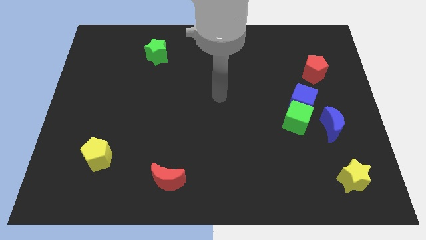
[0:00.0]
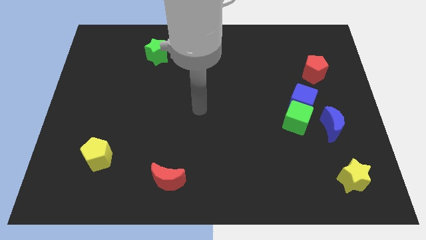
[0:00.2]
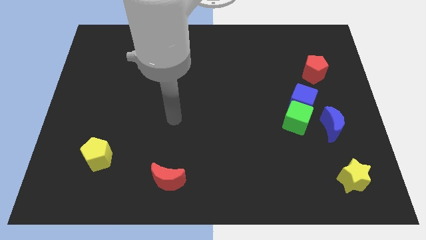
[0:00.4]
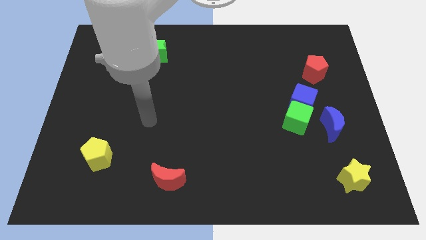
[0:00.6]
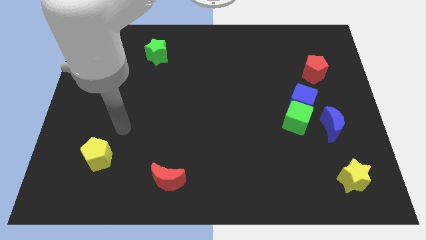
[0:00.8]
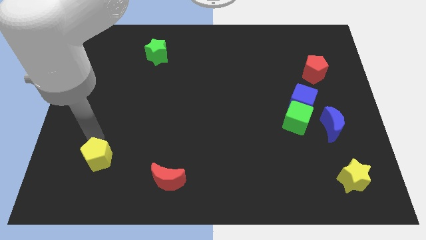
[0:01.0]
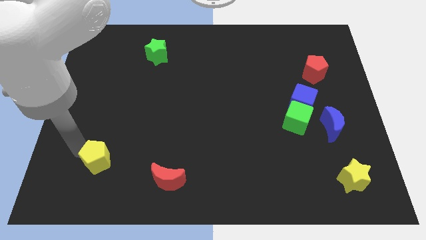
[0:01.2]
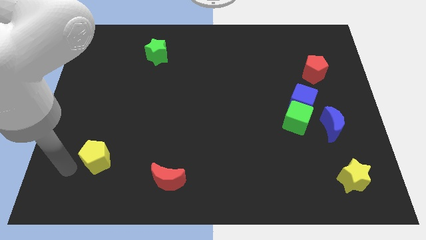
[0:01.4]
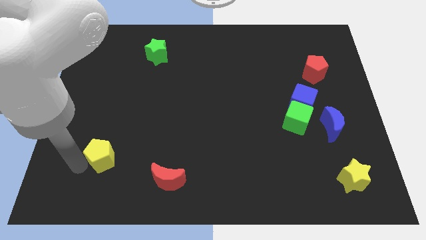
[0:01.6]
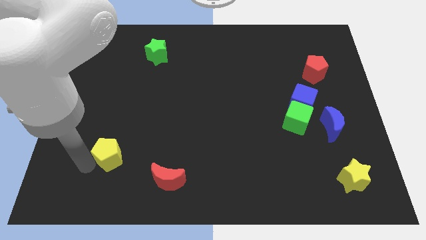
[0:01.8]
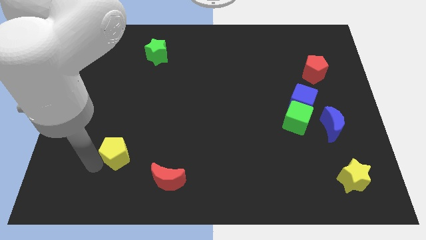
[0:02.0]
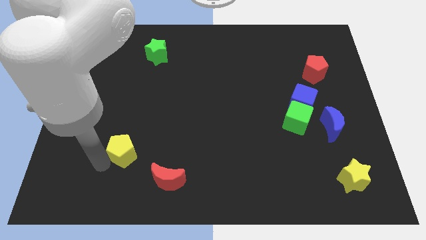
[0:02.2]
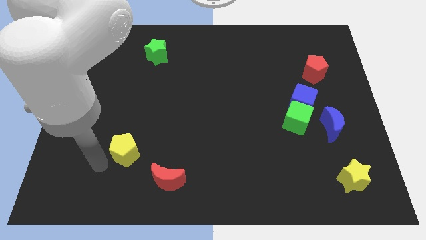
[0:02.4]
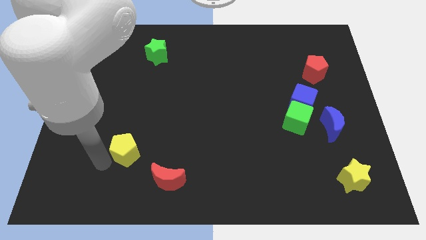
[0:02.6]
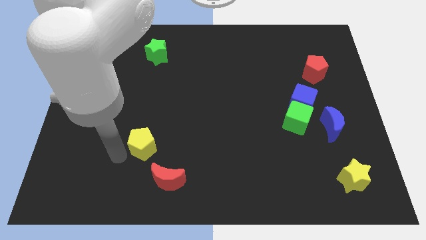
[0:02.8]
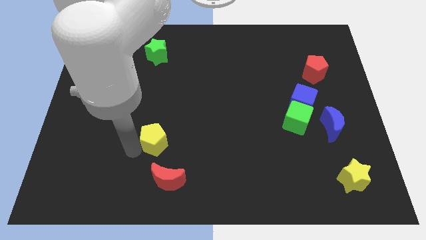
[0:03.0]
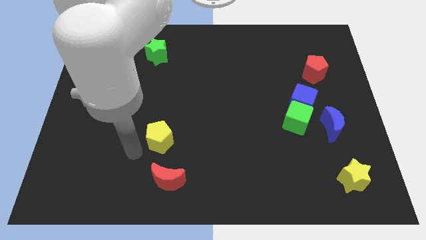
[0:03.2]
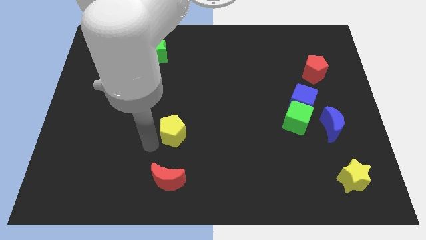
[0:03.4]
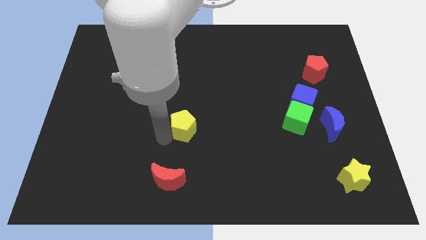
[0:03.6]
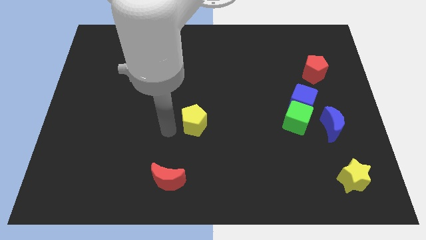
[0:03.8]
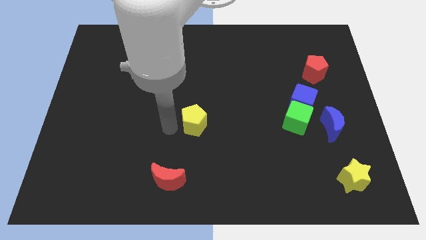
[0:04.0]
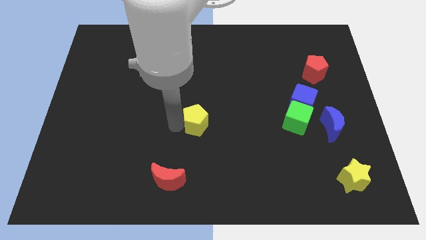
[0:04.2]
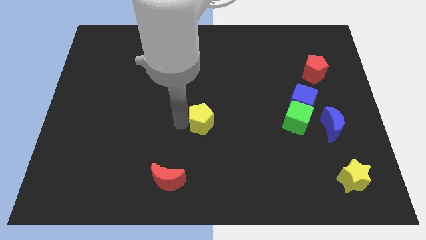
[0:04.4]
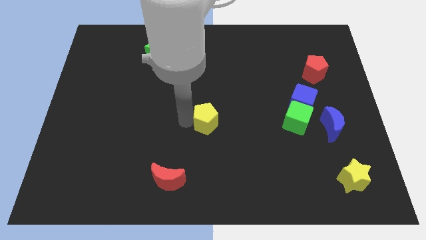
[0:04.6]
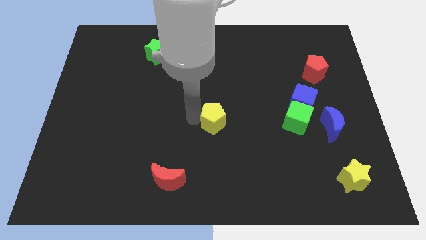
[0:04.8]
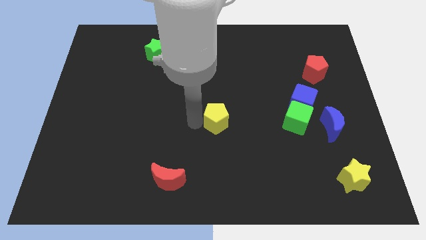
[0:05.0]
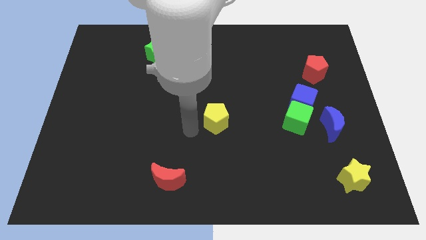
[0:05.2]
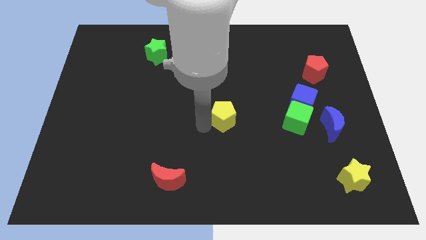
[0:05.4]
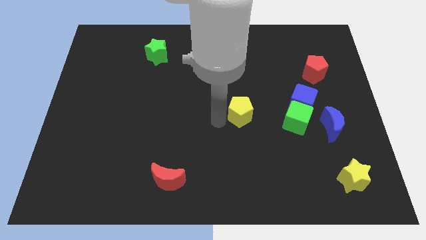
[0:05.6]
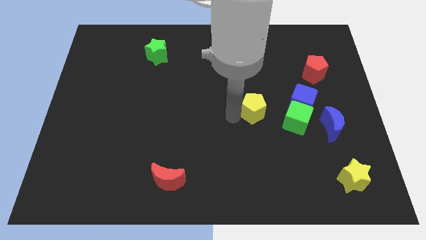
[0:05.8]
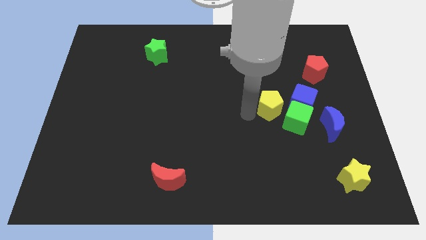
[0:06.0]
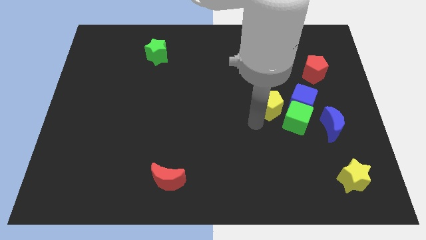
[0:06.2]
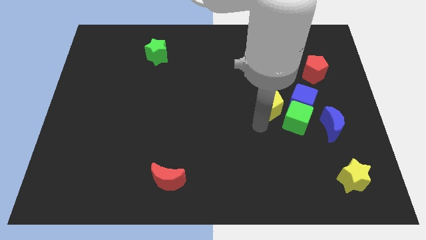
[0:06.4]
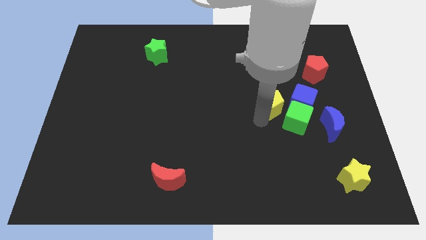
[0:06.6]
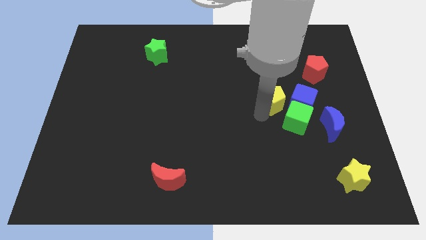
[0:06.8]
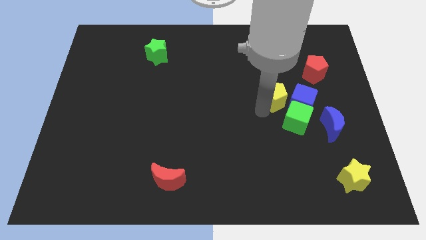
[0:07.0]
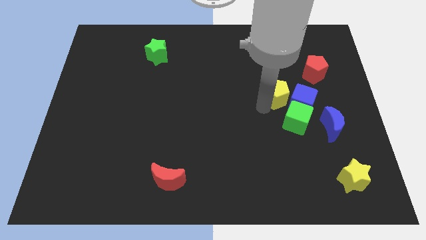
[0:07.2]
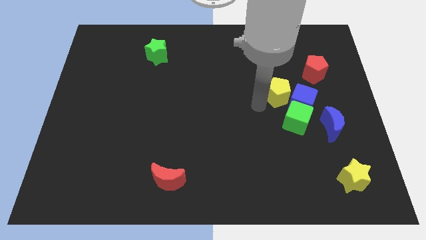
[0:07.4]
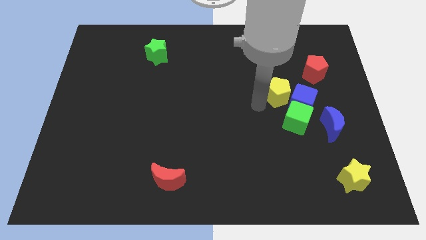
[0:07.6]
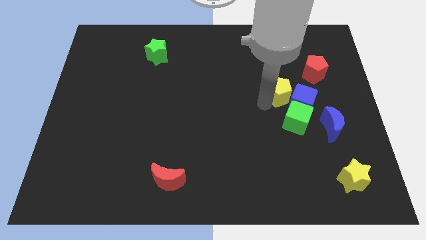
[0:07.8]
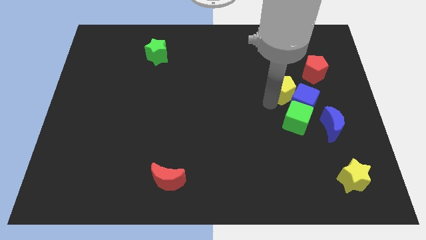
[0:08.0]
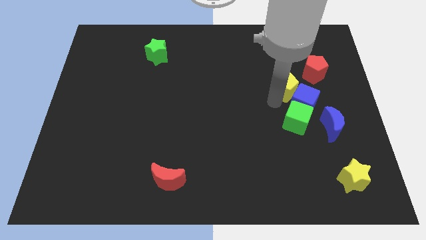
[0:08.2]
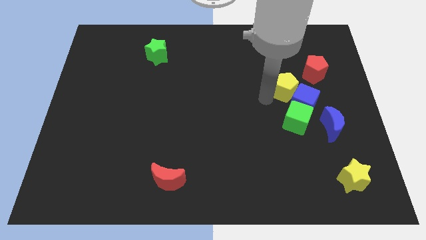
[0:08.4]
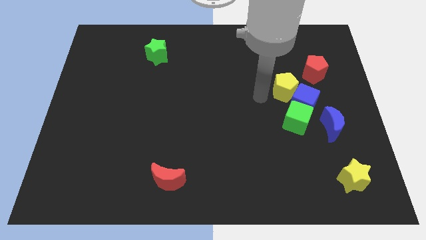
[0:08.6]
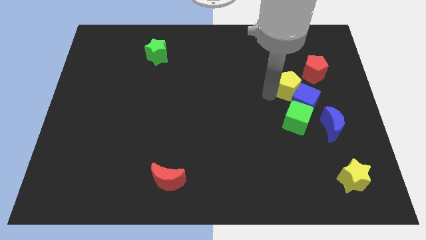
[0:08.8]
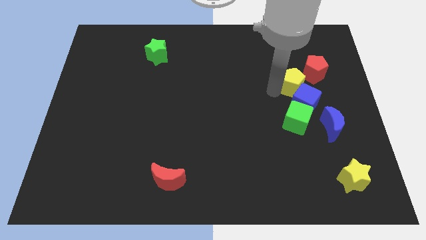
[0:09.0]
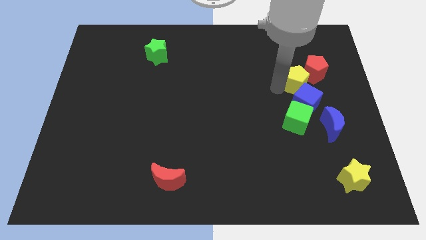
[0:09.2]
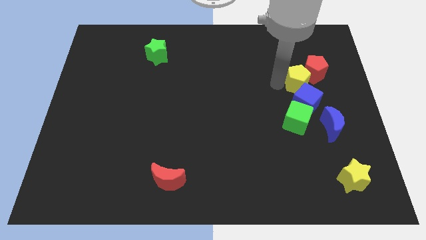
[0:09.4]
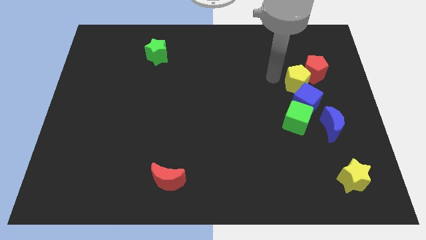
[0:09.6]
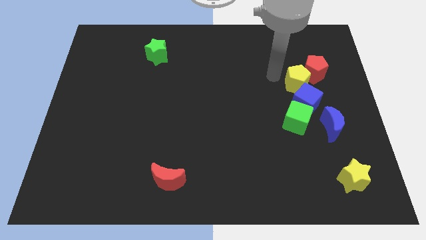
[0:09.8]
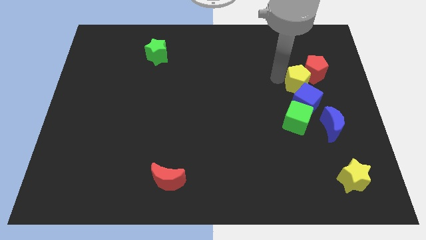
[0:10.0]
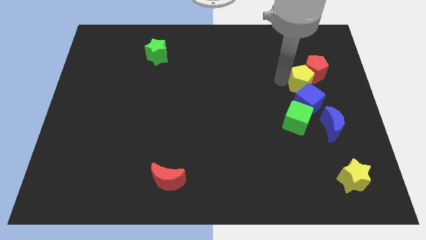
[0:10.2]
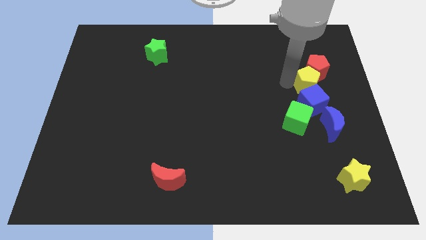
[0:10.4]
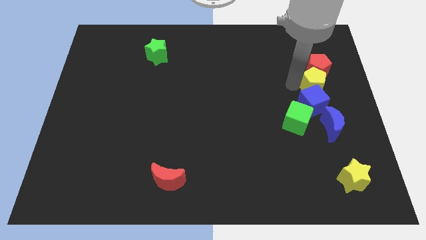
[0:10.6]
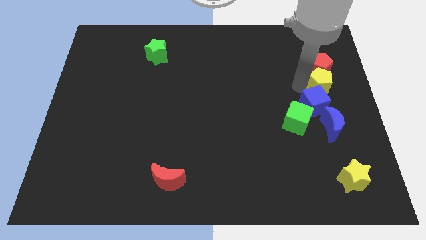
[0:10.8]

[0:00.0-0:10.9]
put the yellow pentagon to the right side

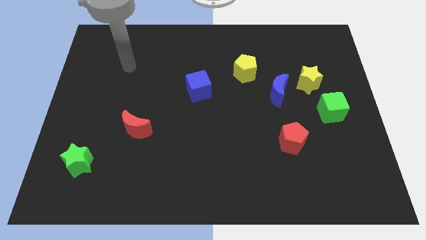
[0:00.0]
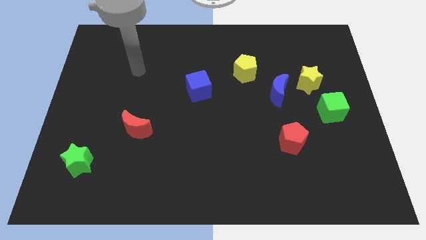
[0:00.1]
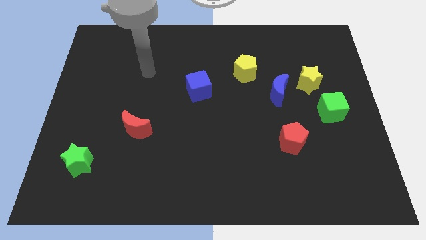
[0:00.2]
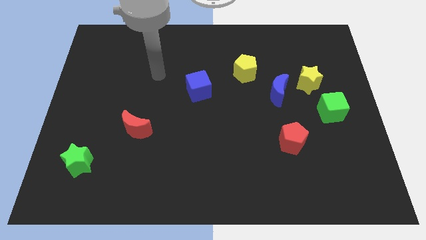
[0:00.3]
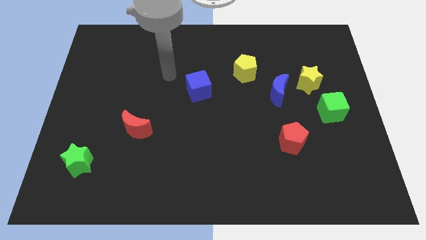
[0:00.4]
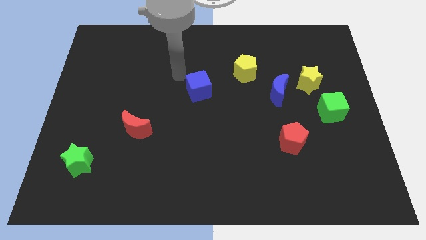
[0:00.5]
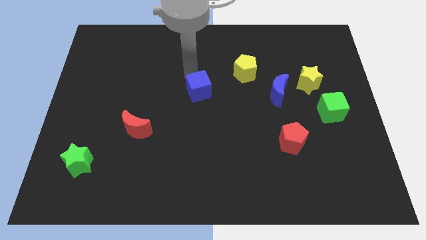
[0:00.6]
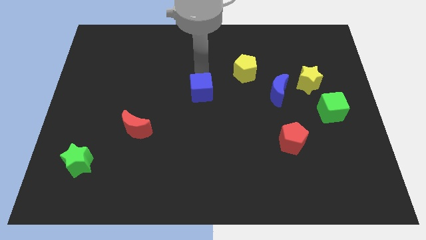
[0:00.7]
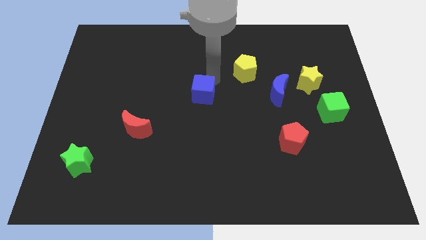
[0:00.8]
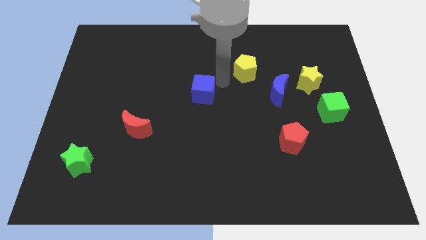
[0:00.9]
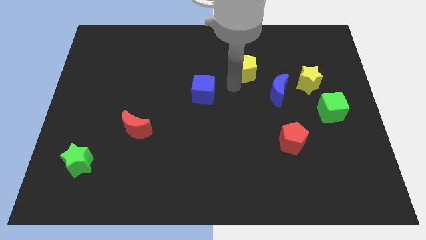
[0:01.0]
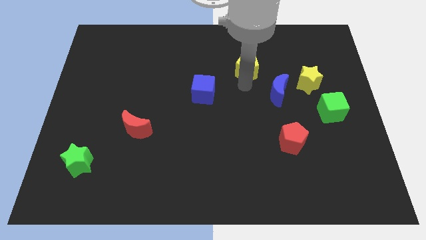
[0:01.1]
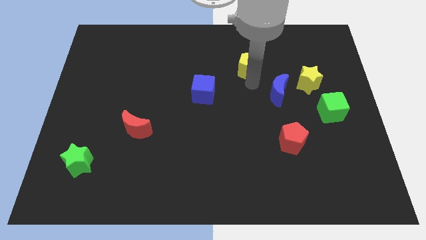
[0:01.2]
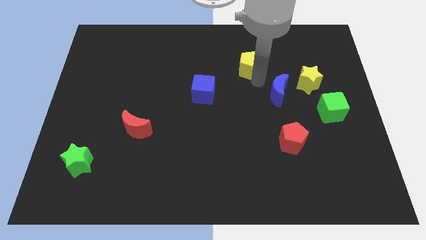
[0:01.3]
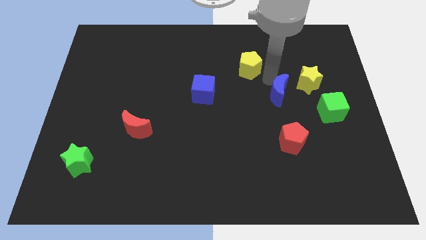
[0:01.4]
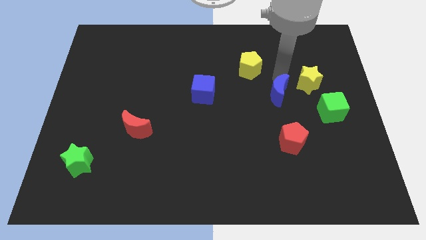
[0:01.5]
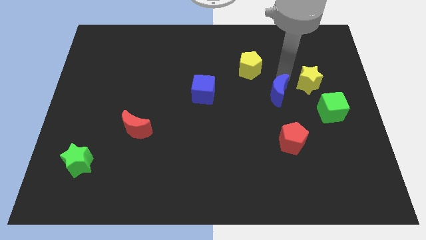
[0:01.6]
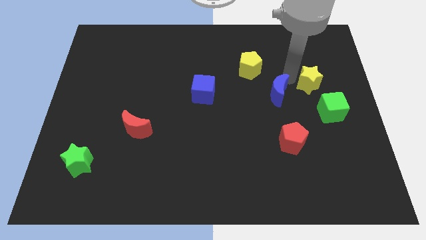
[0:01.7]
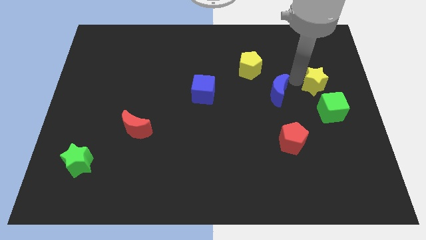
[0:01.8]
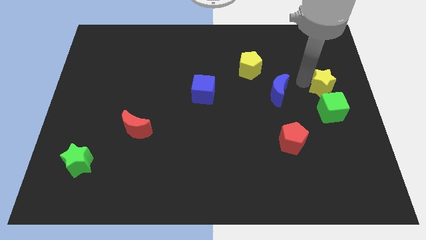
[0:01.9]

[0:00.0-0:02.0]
push the yellow star to the right side
